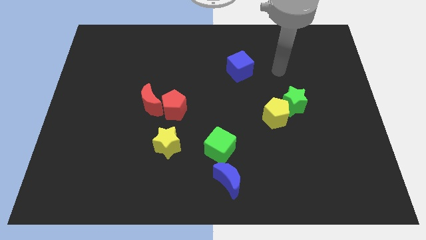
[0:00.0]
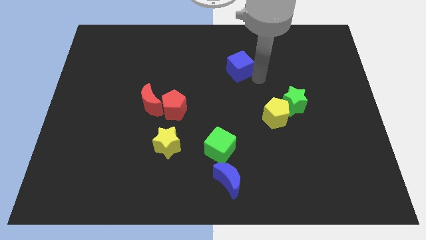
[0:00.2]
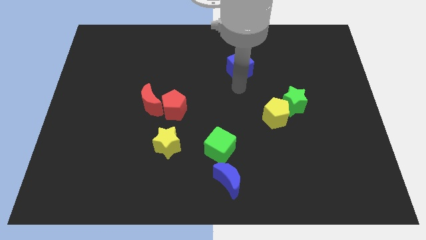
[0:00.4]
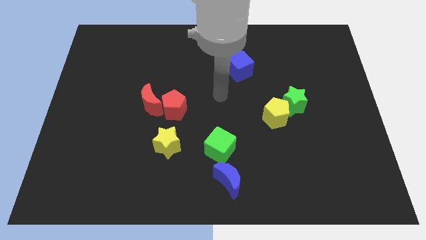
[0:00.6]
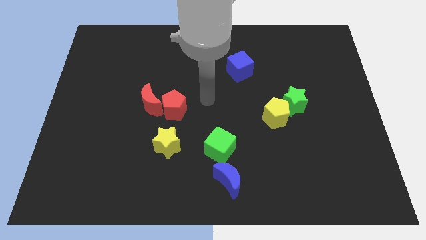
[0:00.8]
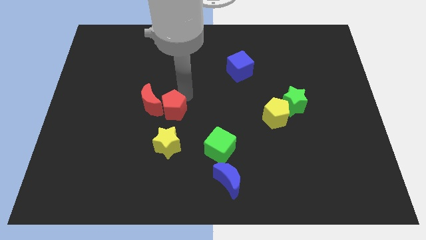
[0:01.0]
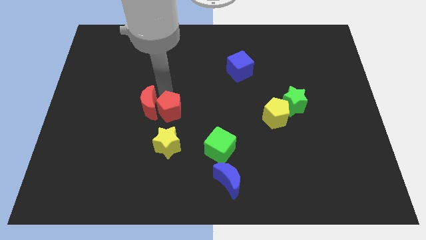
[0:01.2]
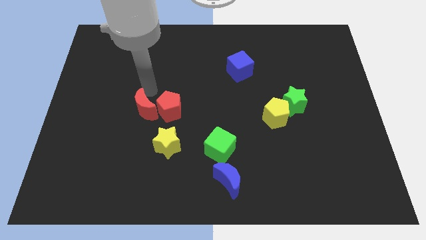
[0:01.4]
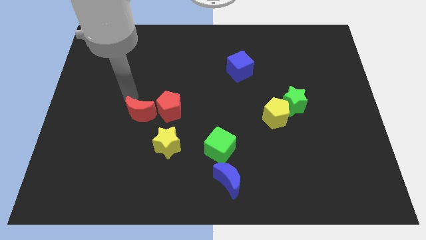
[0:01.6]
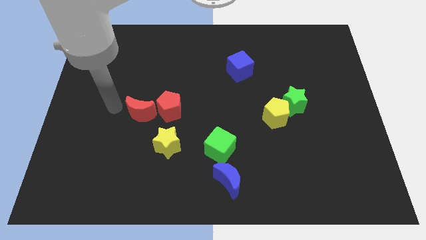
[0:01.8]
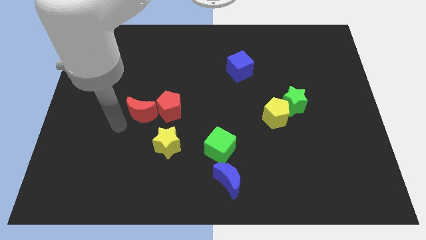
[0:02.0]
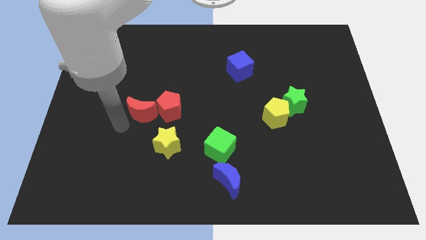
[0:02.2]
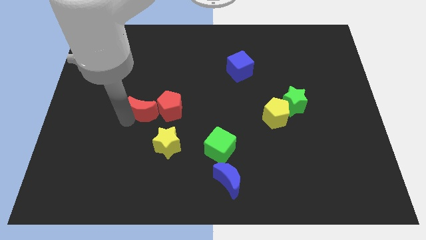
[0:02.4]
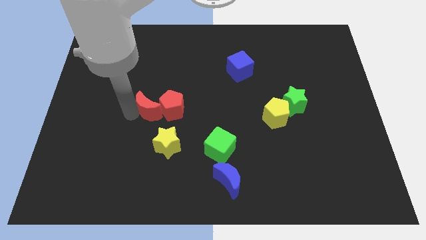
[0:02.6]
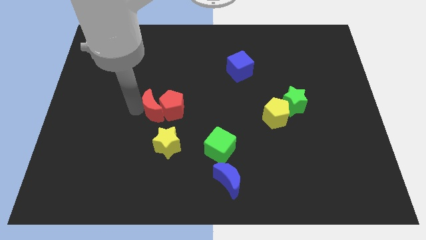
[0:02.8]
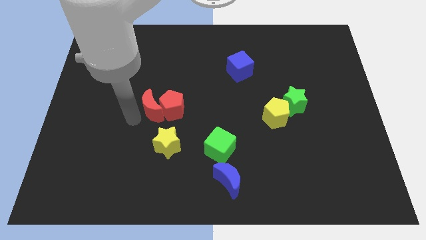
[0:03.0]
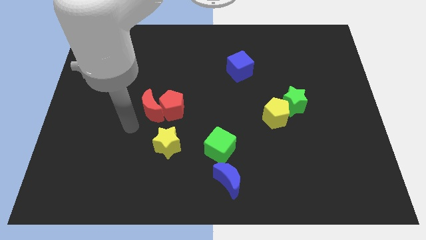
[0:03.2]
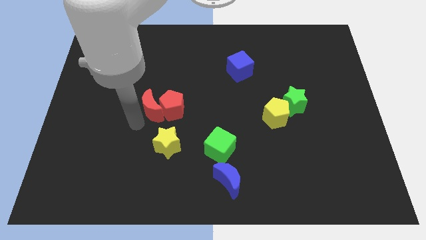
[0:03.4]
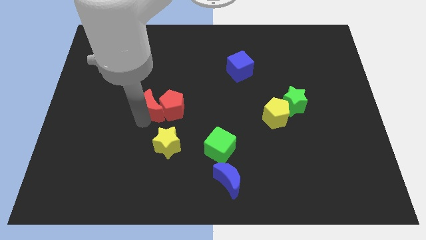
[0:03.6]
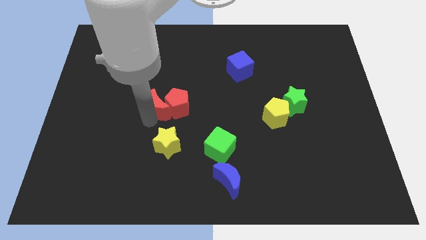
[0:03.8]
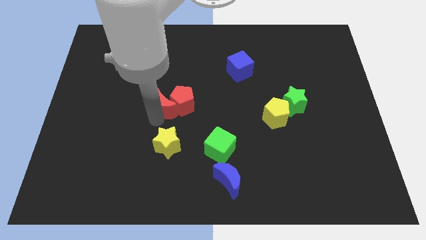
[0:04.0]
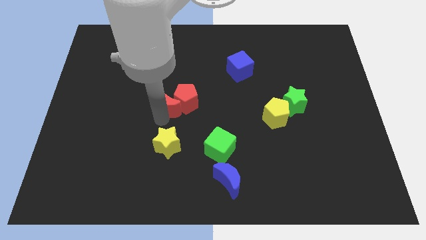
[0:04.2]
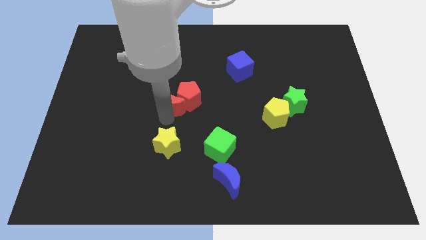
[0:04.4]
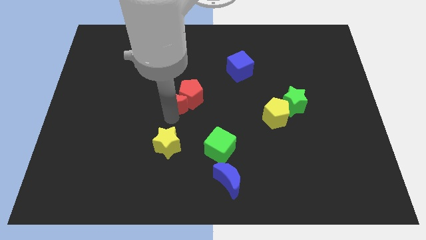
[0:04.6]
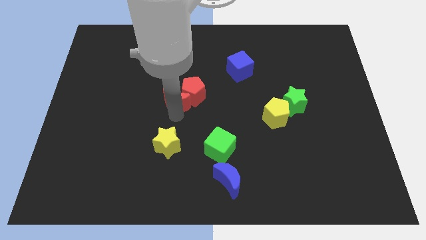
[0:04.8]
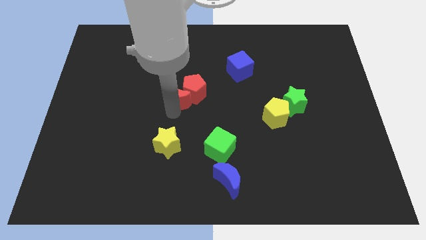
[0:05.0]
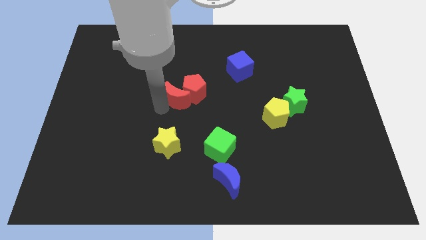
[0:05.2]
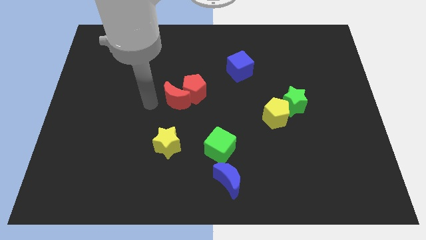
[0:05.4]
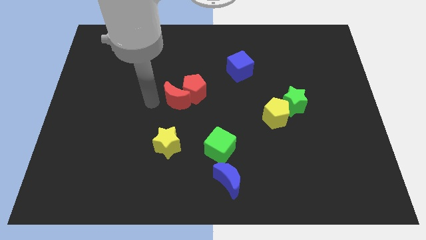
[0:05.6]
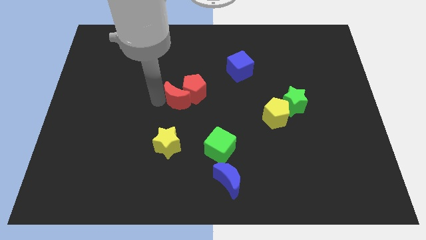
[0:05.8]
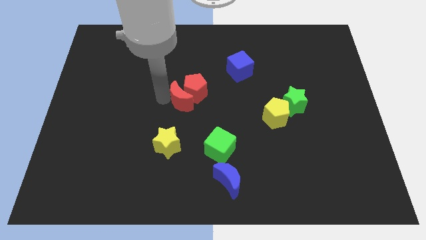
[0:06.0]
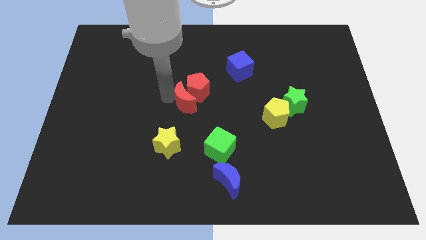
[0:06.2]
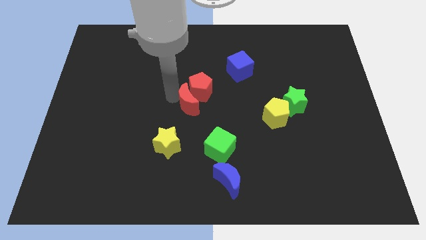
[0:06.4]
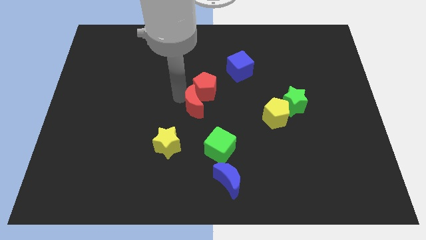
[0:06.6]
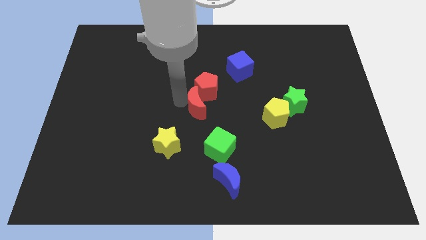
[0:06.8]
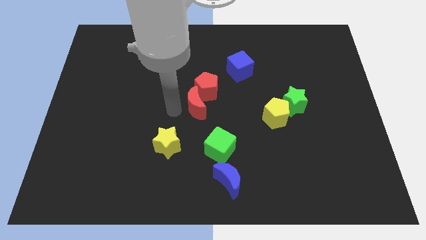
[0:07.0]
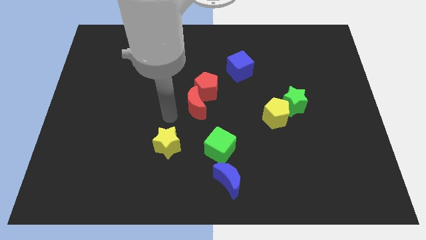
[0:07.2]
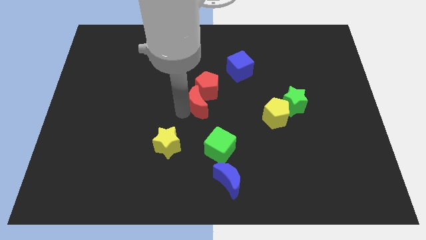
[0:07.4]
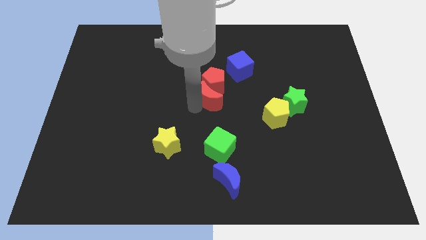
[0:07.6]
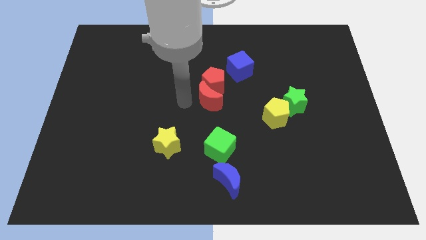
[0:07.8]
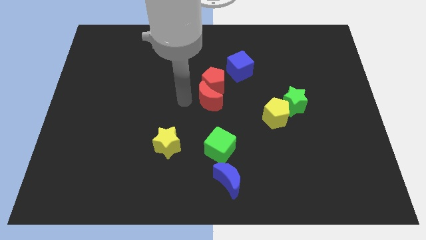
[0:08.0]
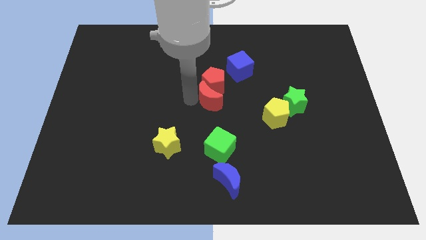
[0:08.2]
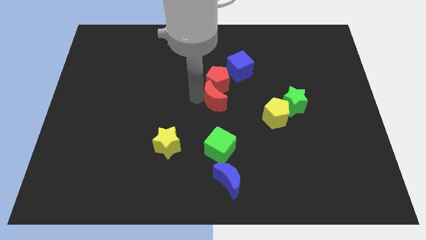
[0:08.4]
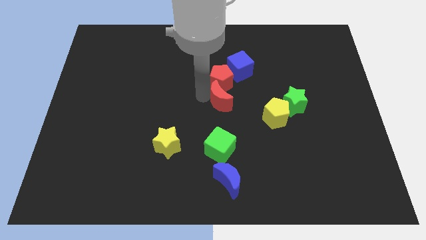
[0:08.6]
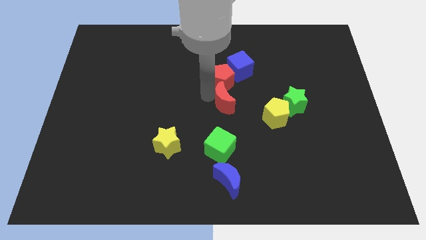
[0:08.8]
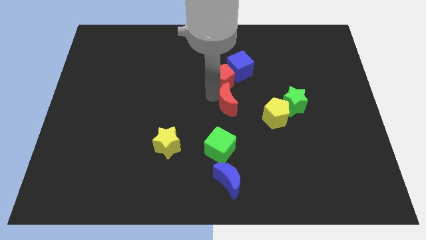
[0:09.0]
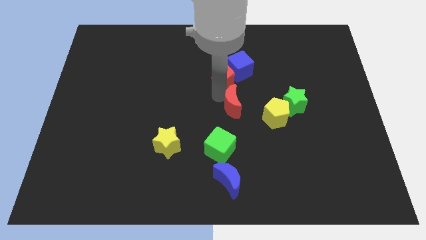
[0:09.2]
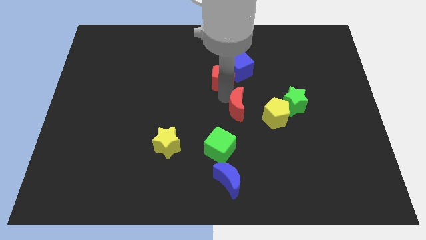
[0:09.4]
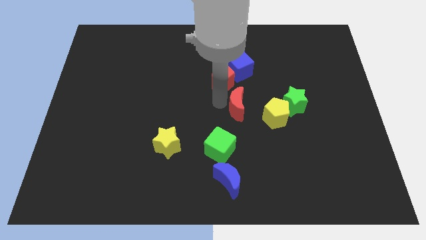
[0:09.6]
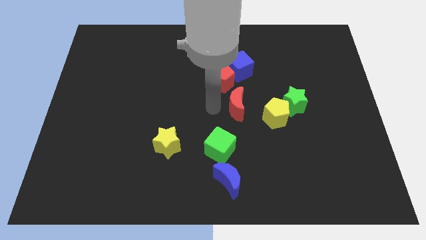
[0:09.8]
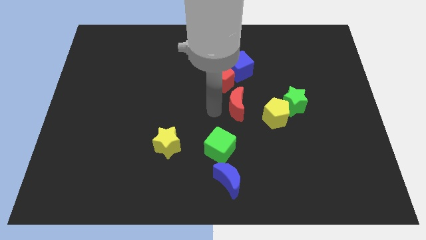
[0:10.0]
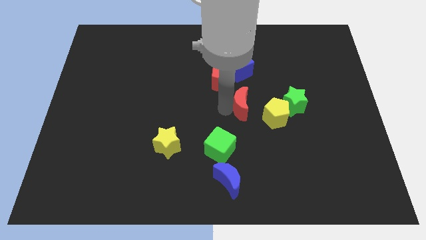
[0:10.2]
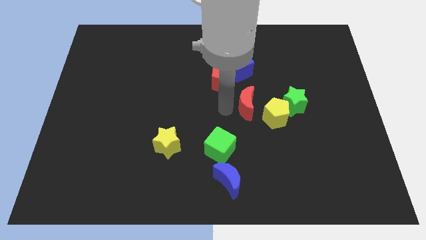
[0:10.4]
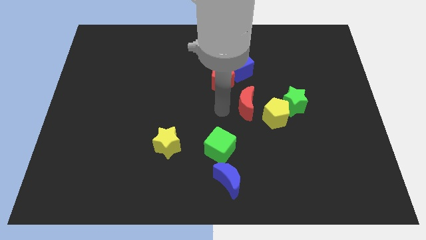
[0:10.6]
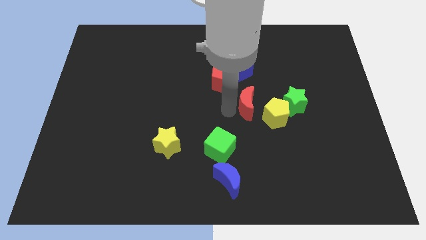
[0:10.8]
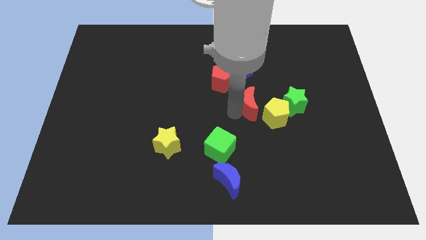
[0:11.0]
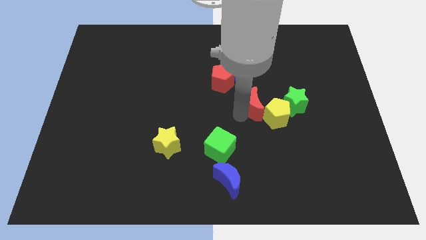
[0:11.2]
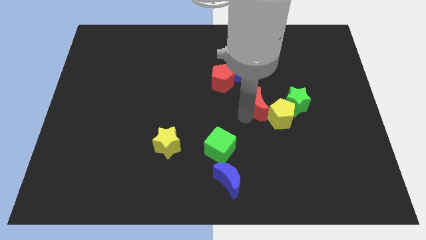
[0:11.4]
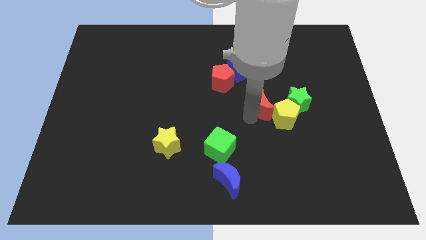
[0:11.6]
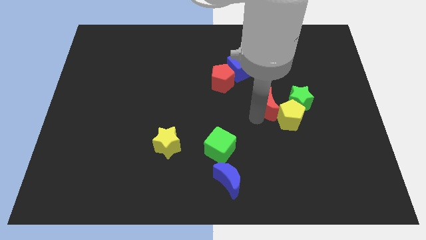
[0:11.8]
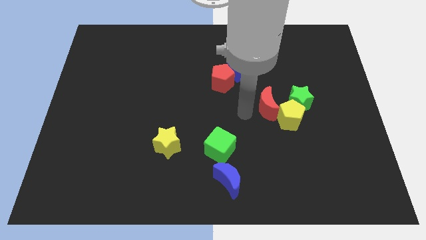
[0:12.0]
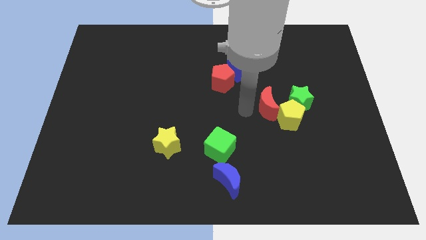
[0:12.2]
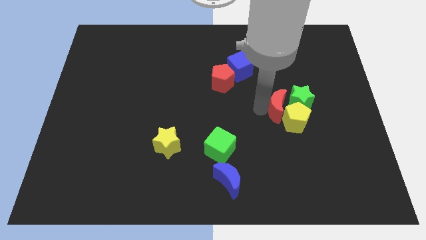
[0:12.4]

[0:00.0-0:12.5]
put the red moon to the green star

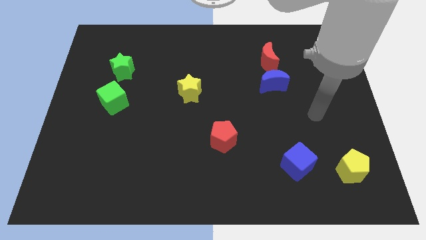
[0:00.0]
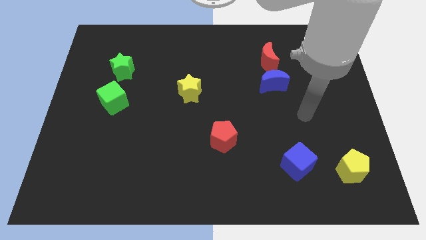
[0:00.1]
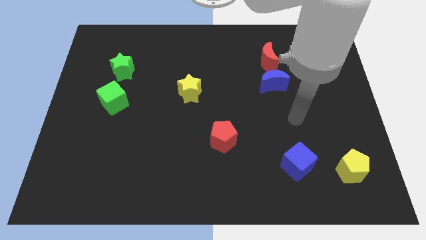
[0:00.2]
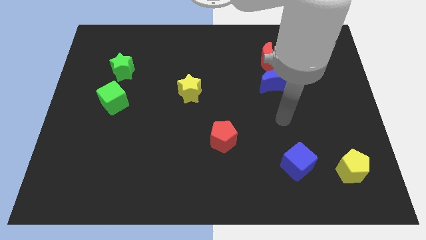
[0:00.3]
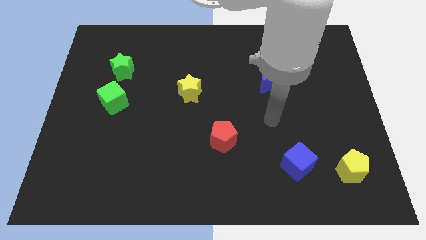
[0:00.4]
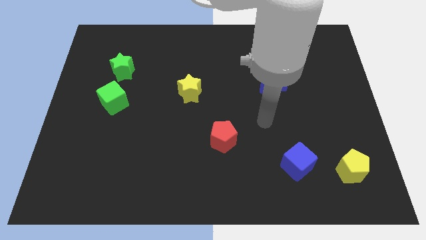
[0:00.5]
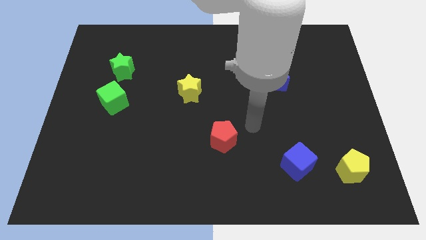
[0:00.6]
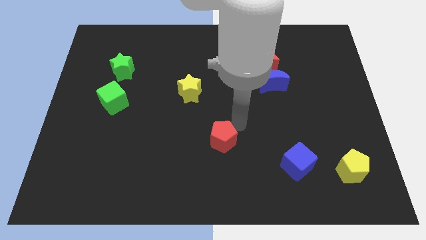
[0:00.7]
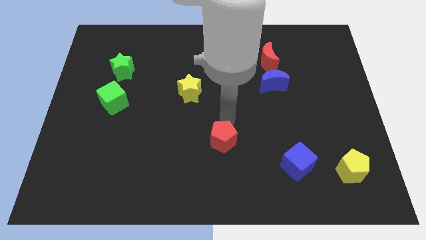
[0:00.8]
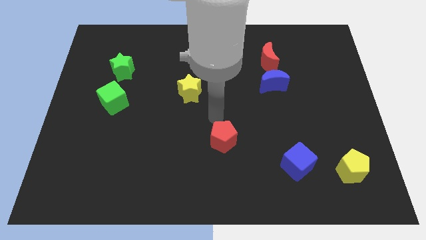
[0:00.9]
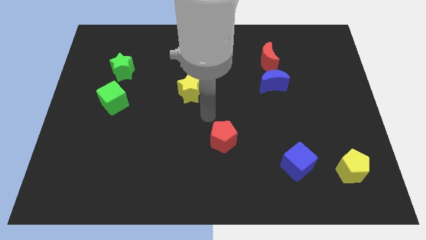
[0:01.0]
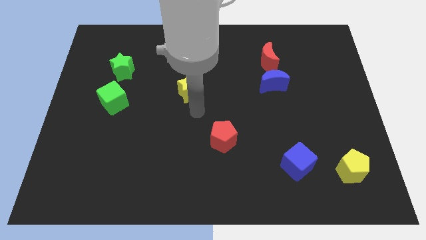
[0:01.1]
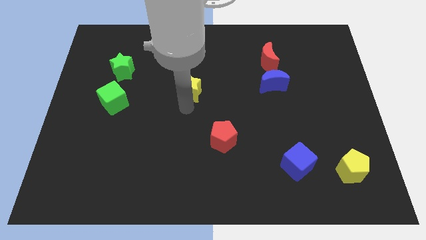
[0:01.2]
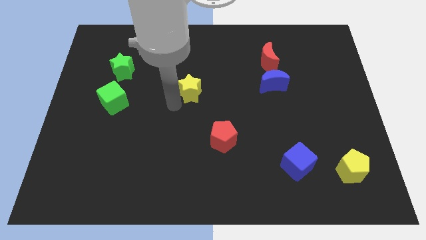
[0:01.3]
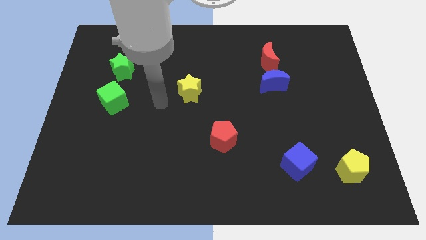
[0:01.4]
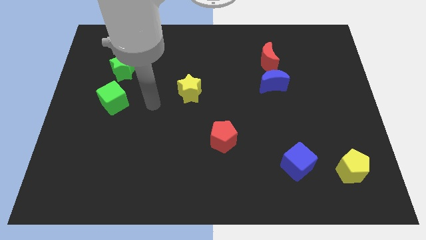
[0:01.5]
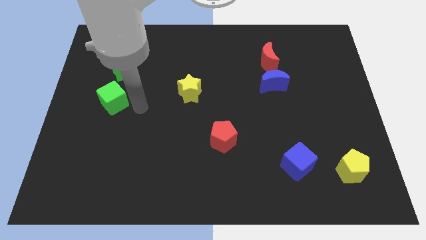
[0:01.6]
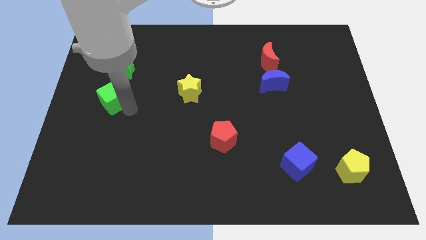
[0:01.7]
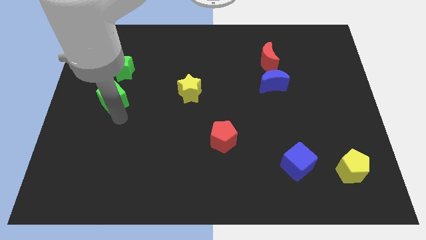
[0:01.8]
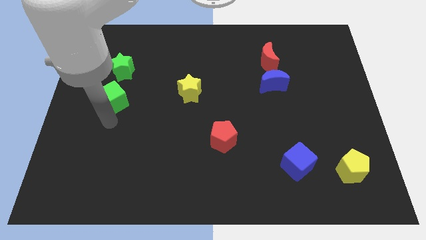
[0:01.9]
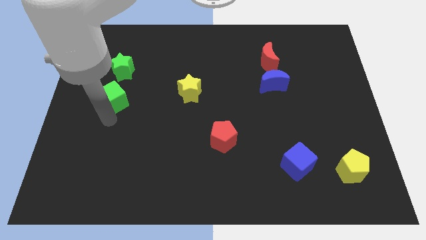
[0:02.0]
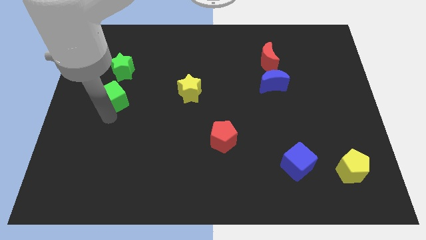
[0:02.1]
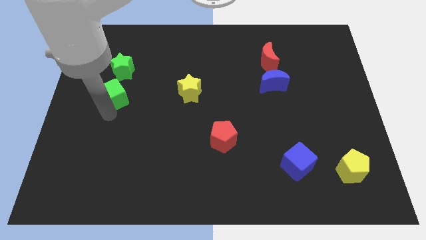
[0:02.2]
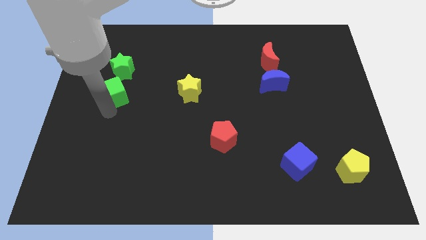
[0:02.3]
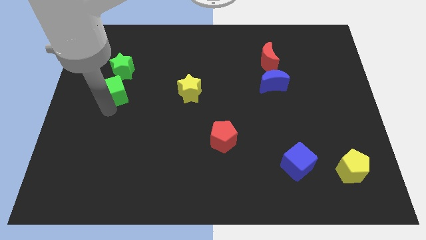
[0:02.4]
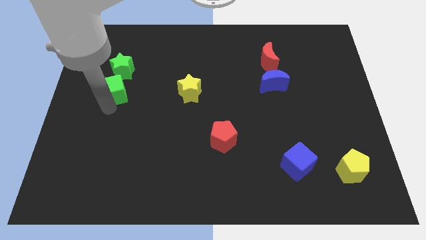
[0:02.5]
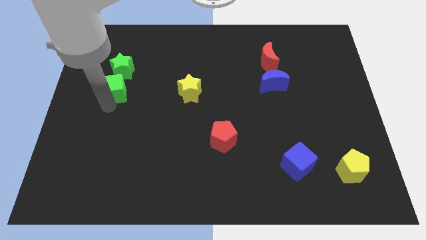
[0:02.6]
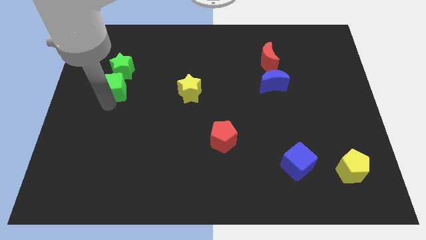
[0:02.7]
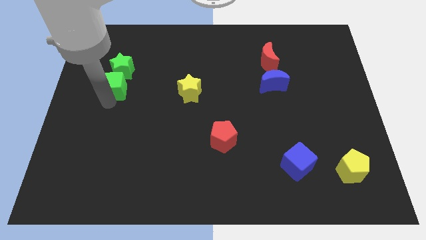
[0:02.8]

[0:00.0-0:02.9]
push the green cube next to the green star
